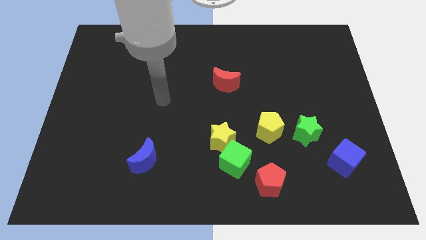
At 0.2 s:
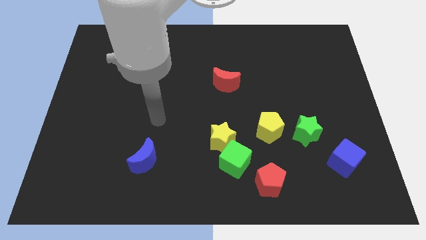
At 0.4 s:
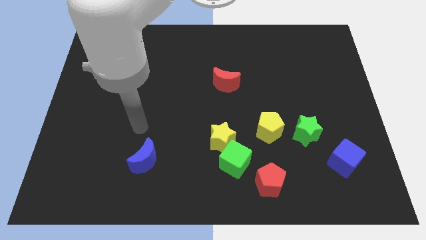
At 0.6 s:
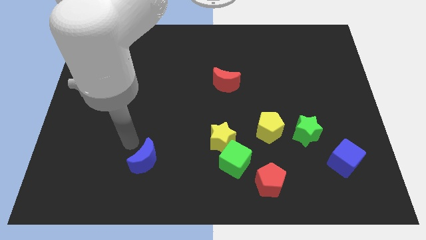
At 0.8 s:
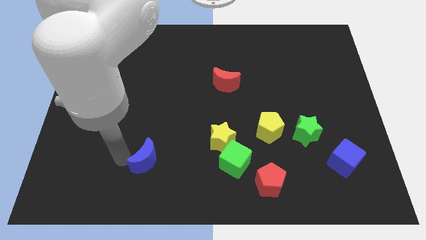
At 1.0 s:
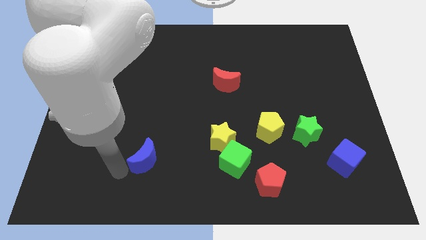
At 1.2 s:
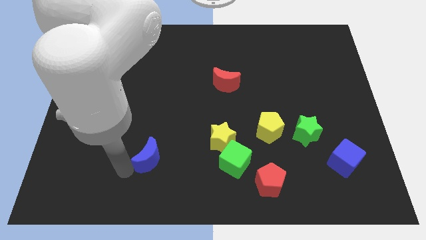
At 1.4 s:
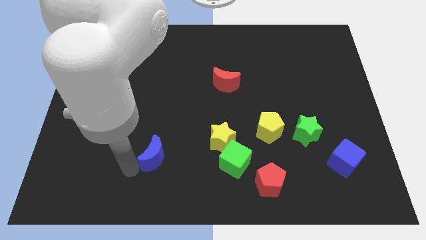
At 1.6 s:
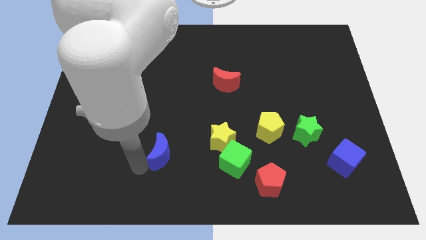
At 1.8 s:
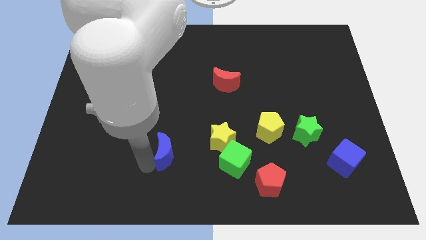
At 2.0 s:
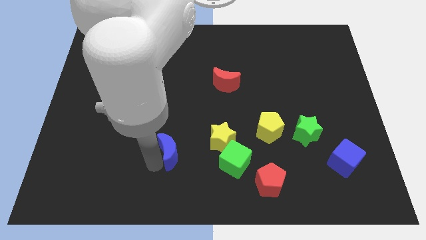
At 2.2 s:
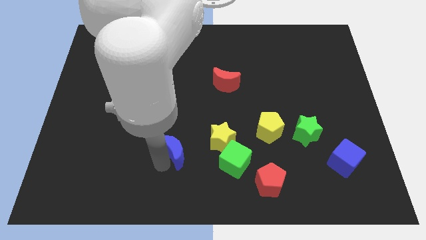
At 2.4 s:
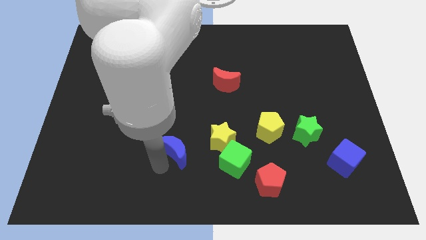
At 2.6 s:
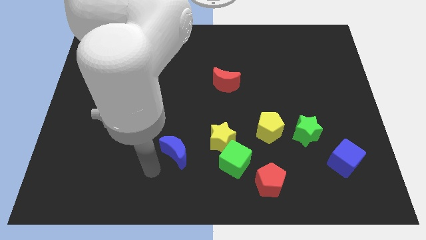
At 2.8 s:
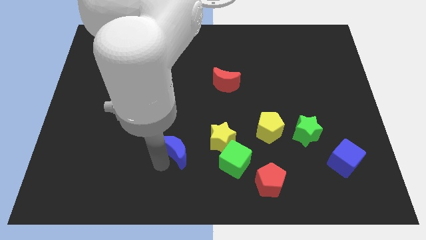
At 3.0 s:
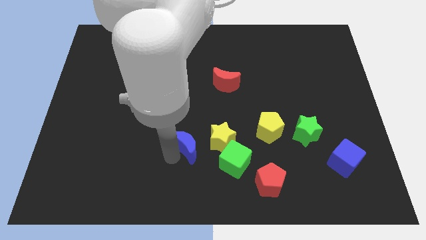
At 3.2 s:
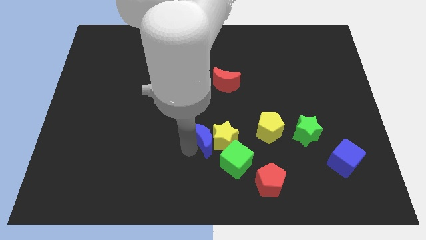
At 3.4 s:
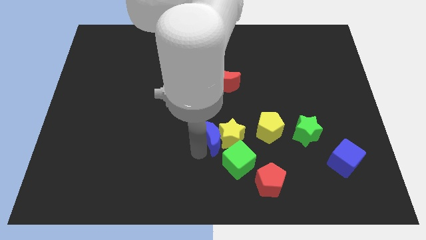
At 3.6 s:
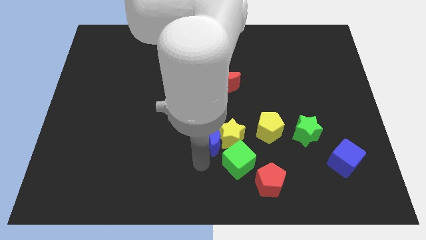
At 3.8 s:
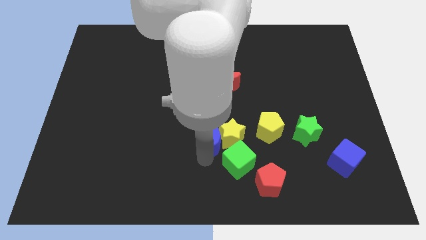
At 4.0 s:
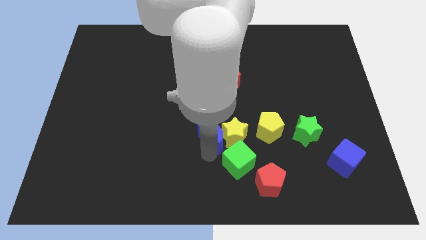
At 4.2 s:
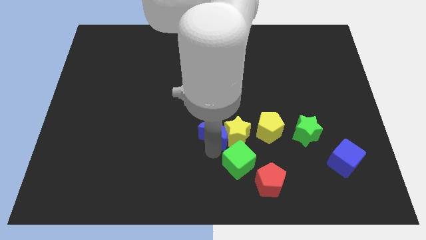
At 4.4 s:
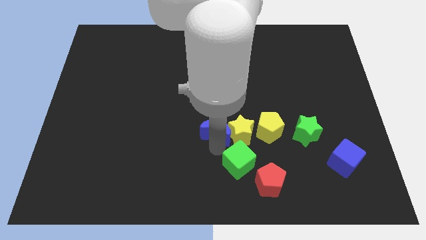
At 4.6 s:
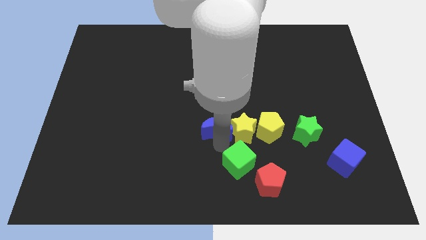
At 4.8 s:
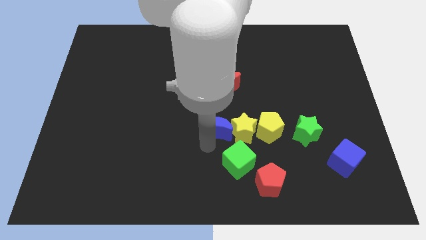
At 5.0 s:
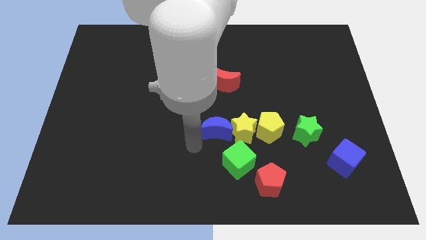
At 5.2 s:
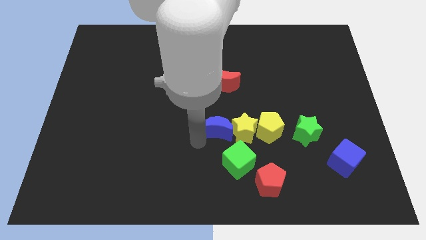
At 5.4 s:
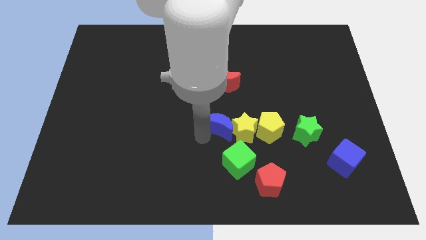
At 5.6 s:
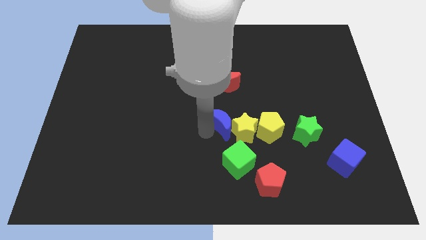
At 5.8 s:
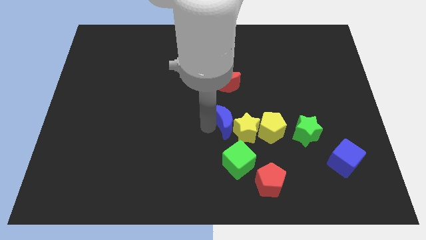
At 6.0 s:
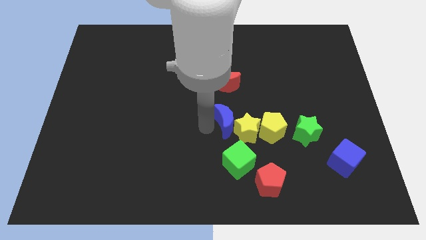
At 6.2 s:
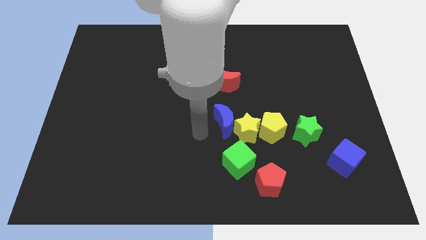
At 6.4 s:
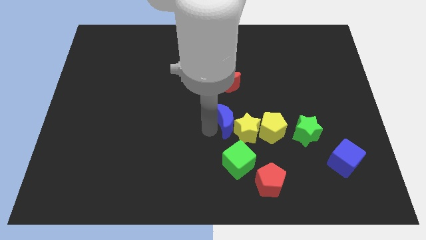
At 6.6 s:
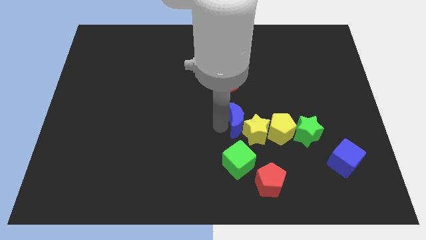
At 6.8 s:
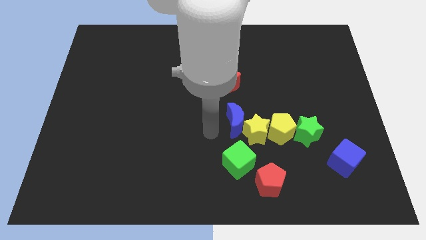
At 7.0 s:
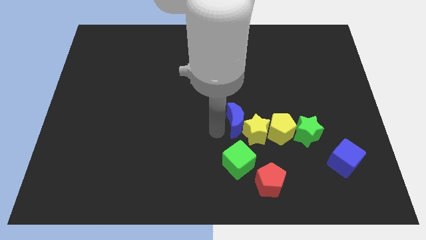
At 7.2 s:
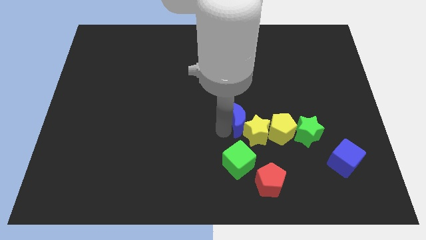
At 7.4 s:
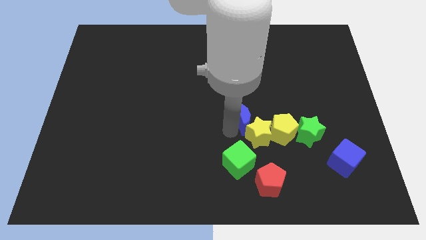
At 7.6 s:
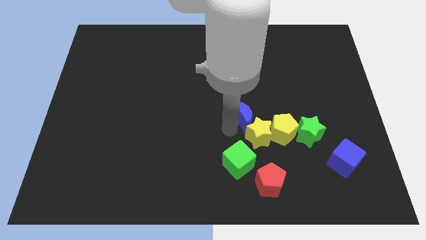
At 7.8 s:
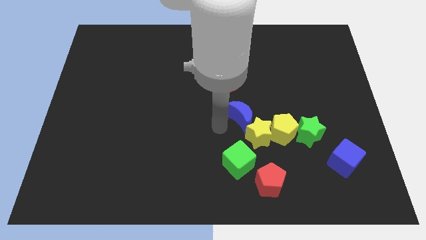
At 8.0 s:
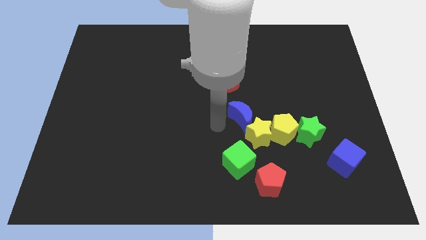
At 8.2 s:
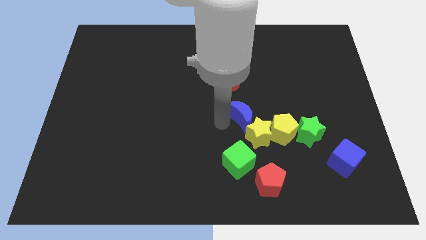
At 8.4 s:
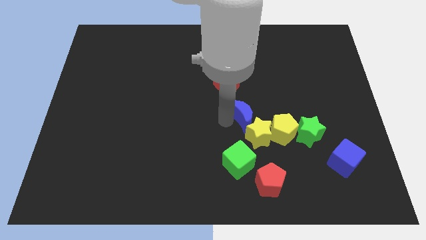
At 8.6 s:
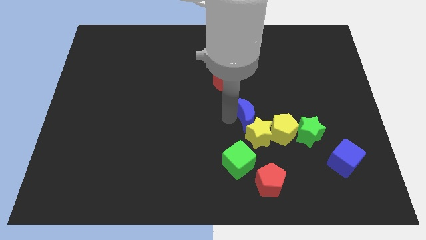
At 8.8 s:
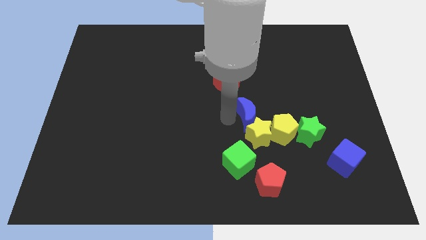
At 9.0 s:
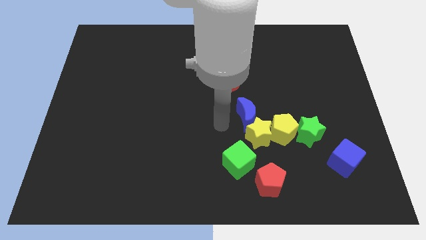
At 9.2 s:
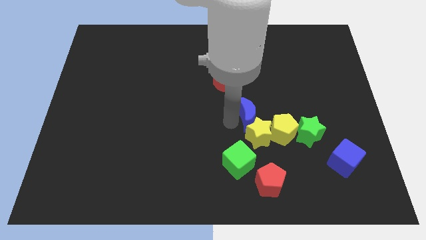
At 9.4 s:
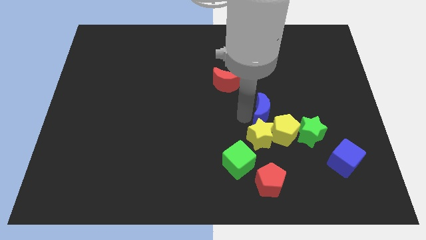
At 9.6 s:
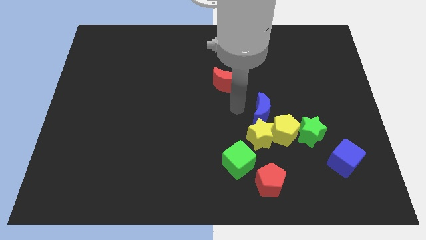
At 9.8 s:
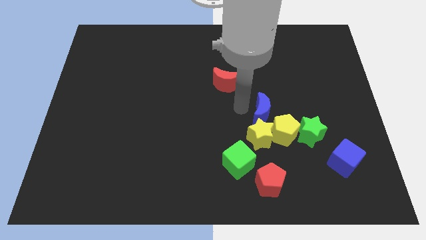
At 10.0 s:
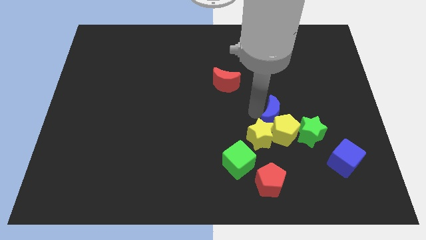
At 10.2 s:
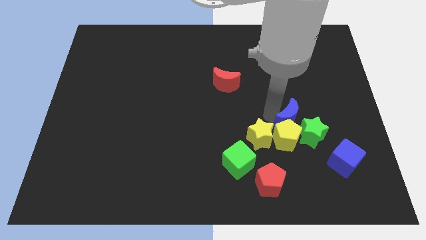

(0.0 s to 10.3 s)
move the blue moon next to the green star

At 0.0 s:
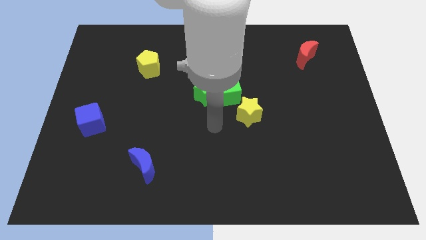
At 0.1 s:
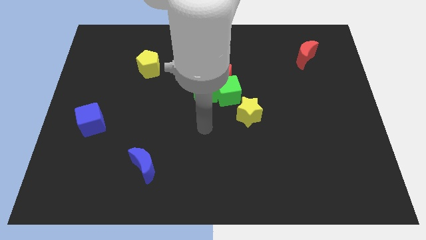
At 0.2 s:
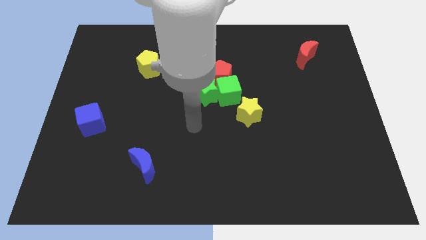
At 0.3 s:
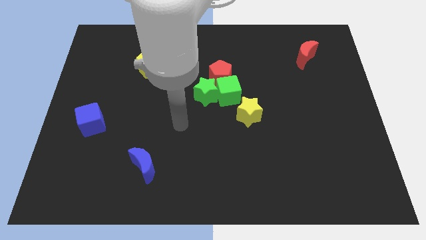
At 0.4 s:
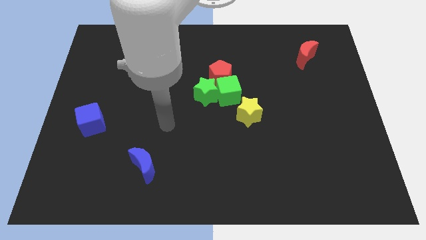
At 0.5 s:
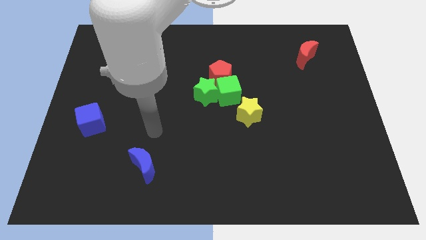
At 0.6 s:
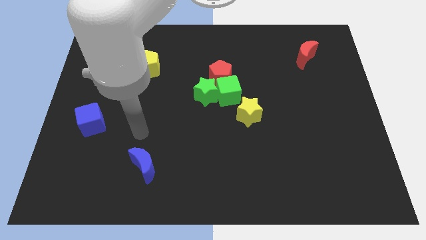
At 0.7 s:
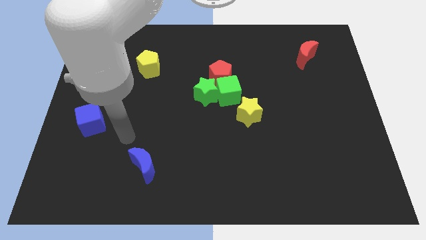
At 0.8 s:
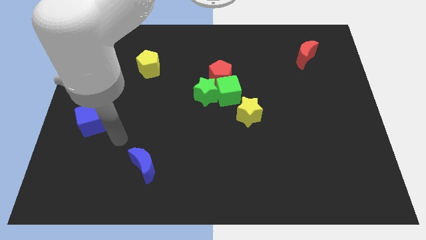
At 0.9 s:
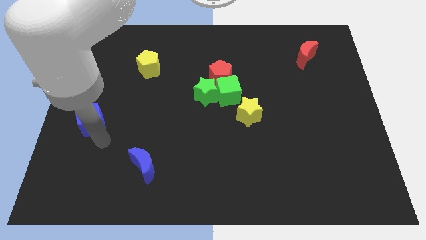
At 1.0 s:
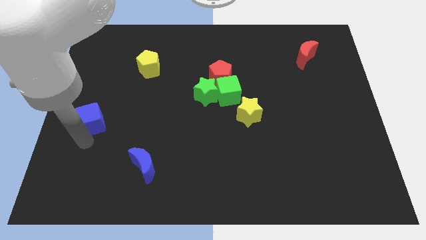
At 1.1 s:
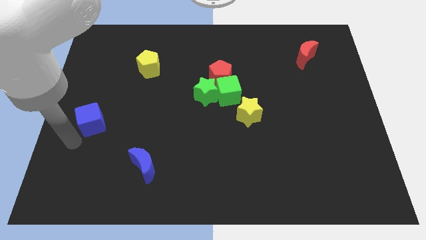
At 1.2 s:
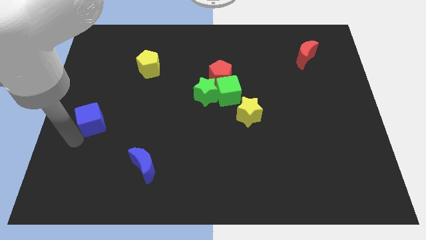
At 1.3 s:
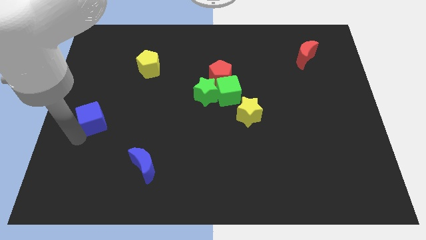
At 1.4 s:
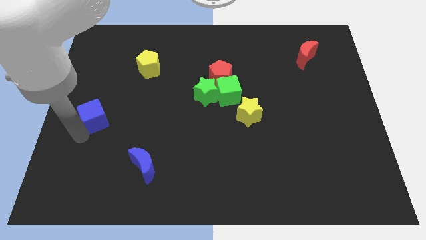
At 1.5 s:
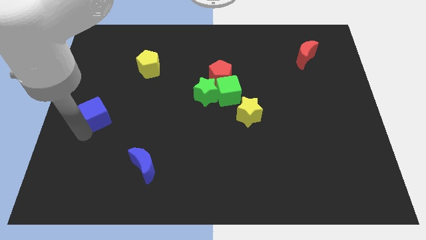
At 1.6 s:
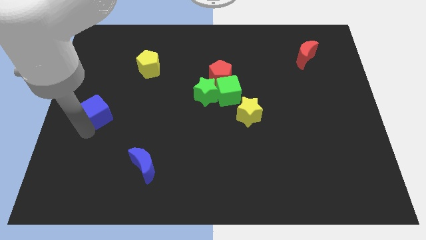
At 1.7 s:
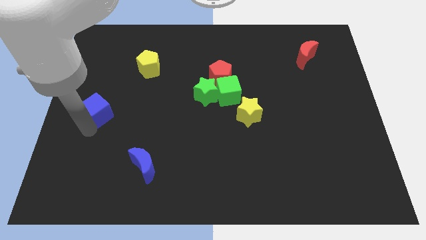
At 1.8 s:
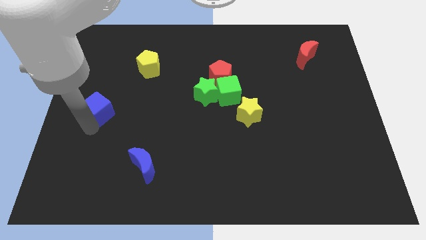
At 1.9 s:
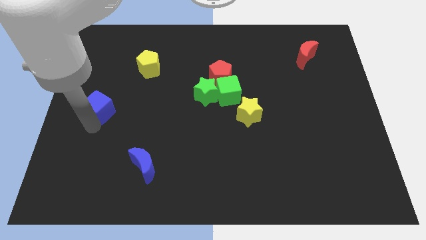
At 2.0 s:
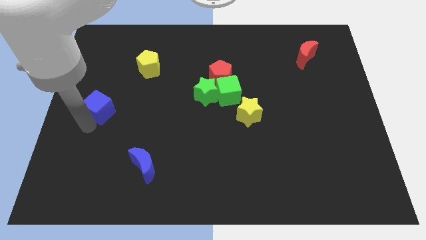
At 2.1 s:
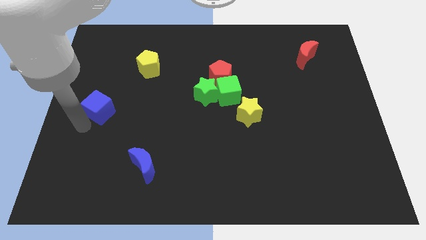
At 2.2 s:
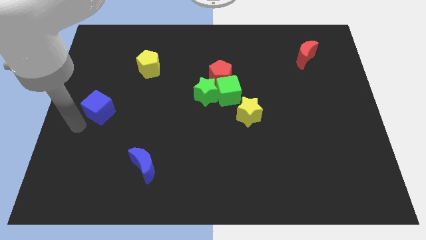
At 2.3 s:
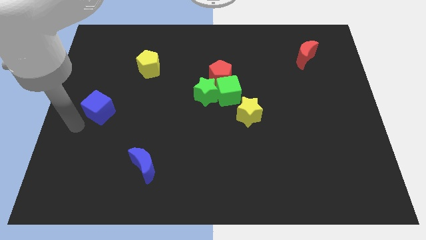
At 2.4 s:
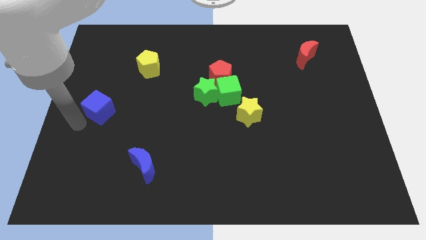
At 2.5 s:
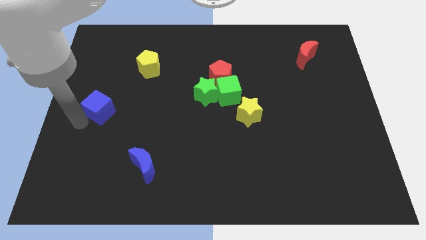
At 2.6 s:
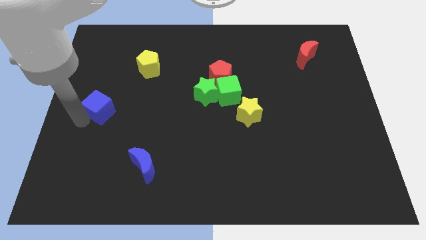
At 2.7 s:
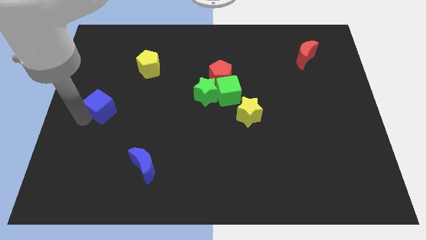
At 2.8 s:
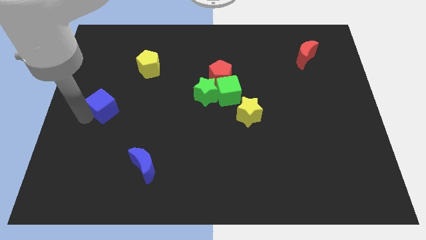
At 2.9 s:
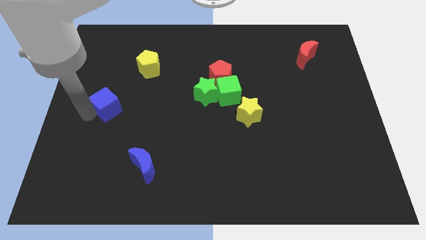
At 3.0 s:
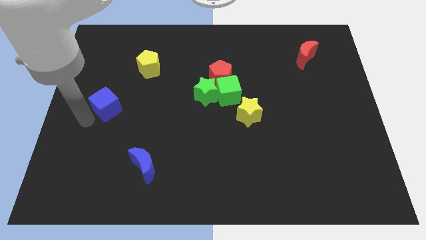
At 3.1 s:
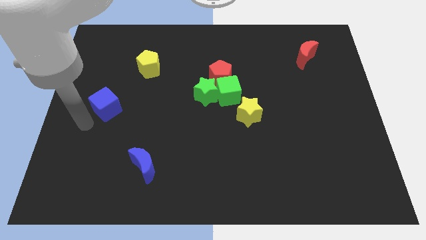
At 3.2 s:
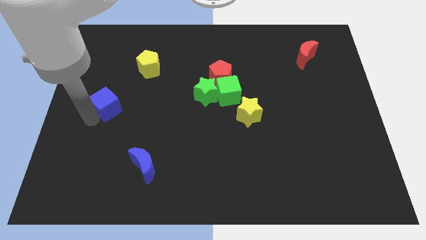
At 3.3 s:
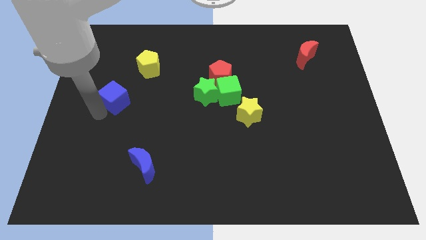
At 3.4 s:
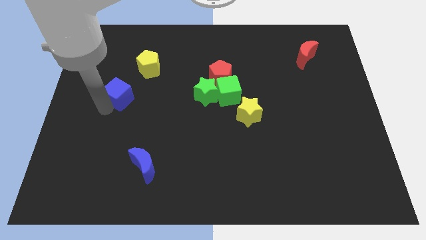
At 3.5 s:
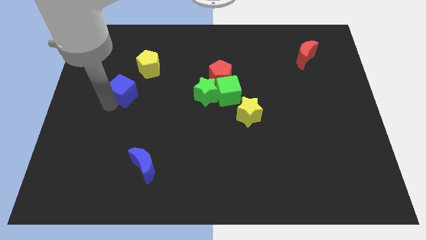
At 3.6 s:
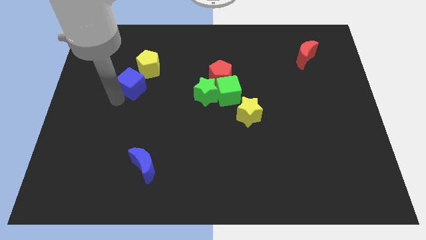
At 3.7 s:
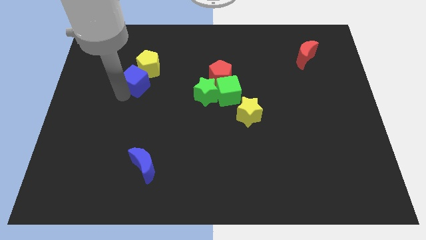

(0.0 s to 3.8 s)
move the blue cube next to the yellow pentagon
